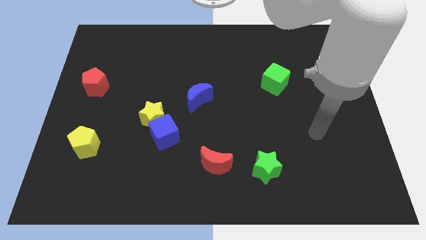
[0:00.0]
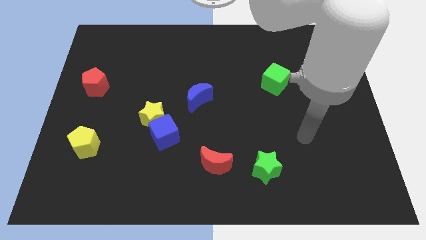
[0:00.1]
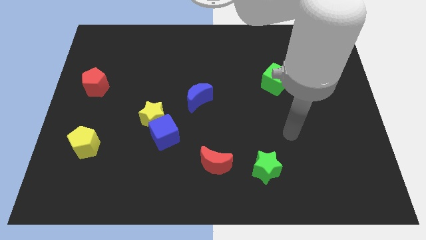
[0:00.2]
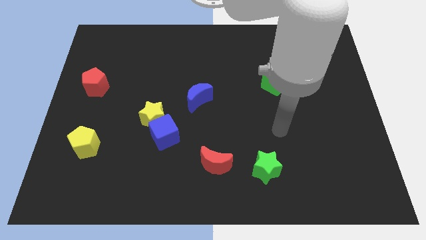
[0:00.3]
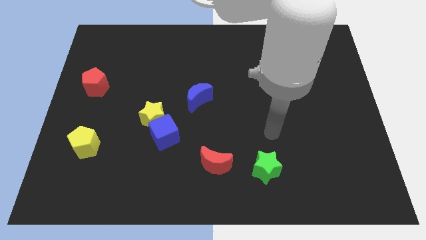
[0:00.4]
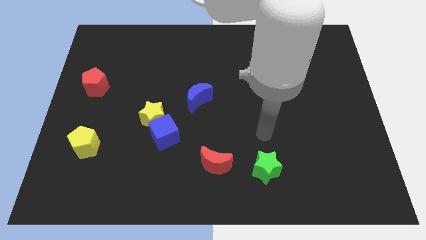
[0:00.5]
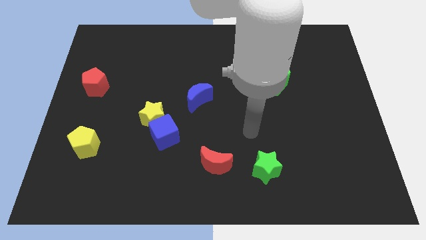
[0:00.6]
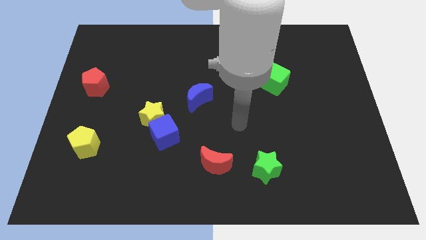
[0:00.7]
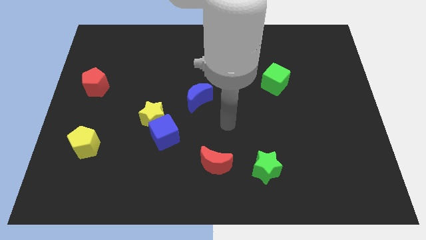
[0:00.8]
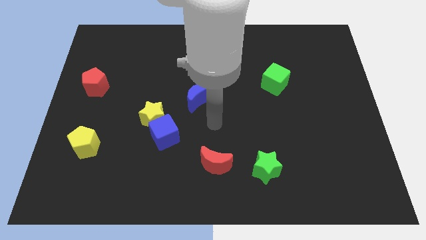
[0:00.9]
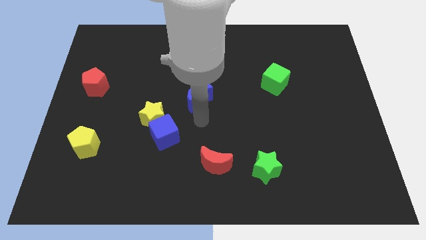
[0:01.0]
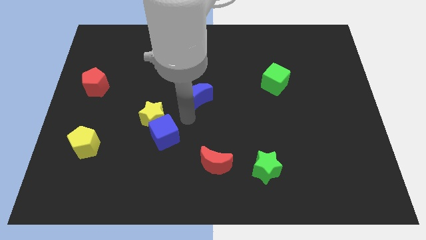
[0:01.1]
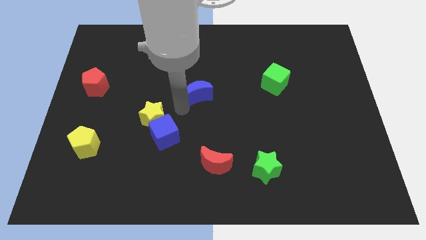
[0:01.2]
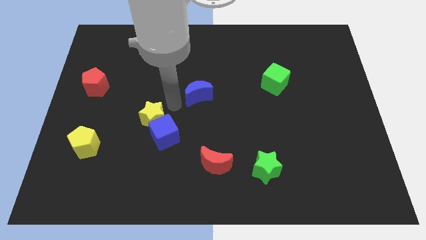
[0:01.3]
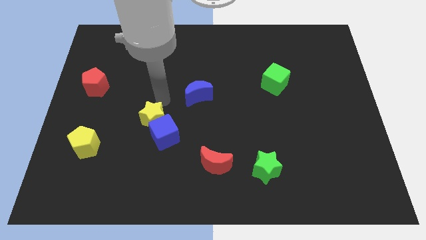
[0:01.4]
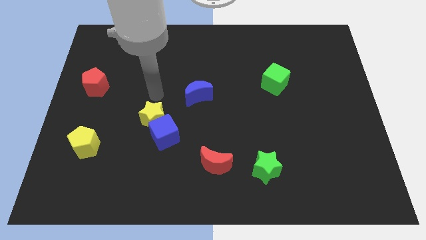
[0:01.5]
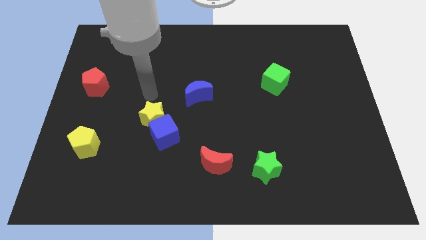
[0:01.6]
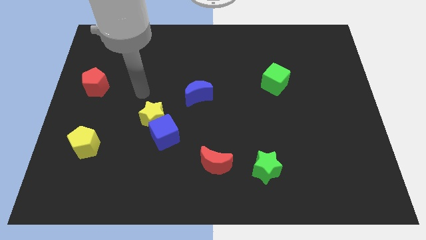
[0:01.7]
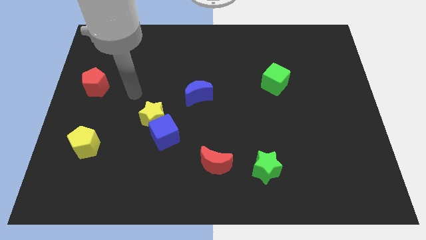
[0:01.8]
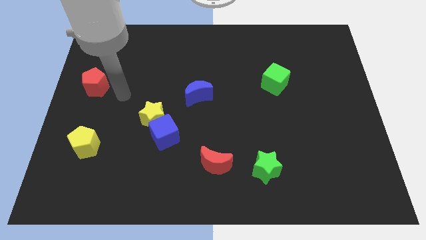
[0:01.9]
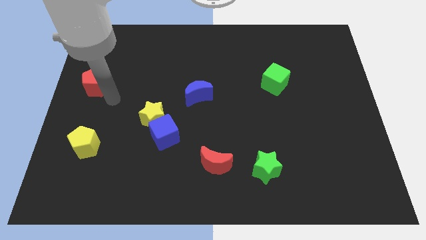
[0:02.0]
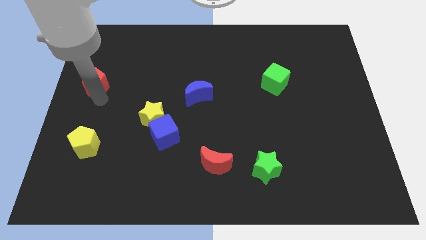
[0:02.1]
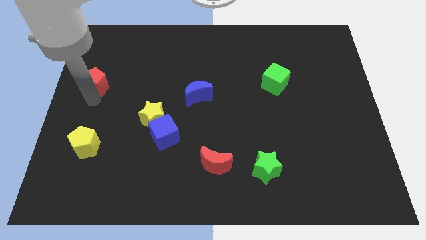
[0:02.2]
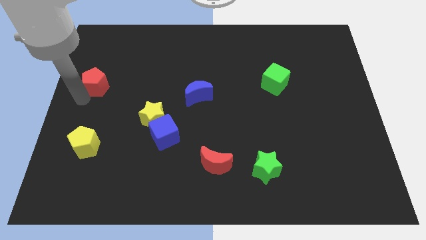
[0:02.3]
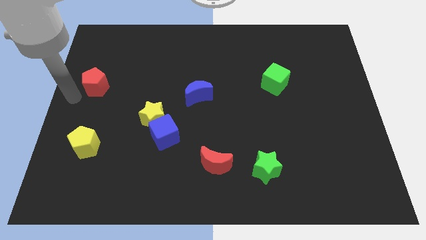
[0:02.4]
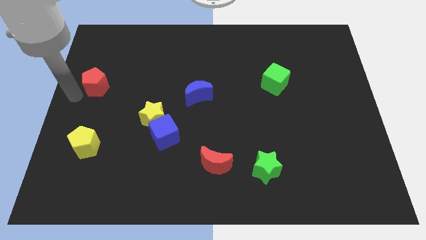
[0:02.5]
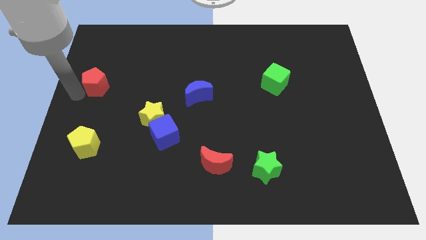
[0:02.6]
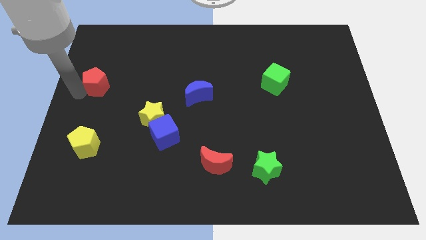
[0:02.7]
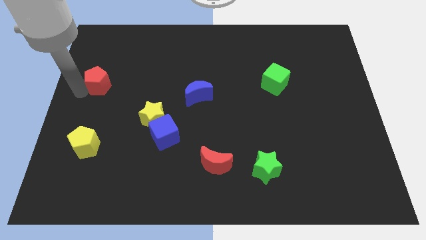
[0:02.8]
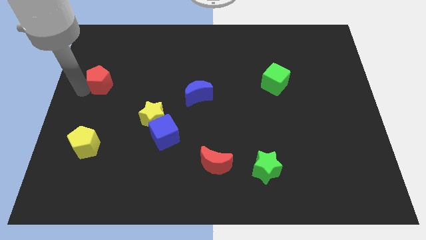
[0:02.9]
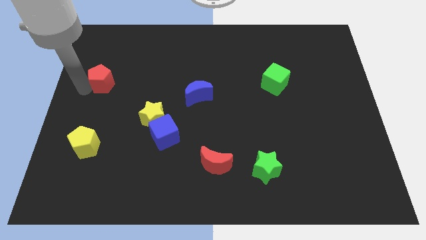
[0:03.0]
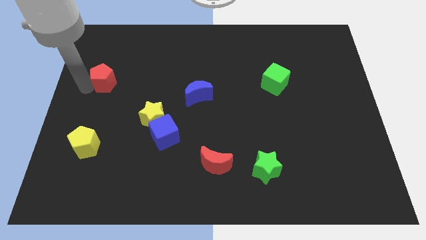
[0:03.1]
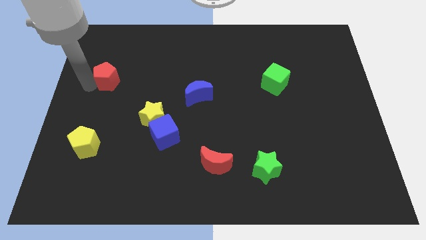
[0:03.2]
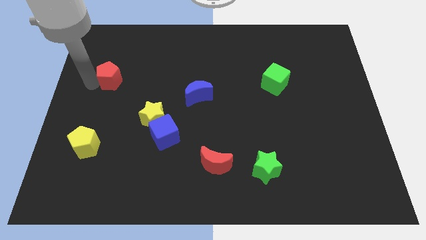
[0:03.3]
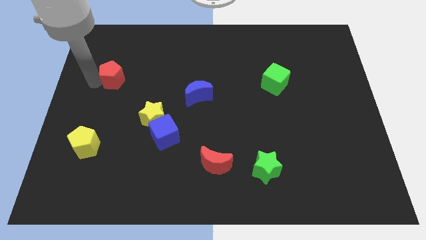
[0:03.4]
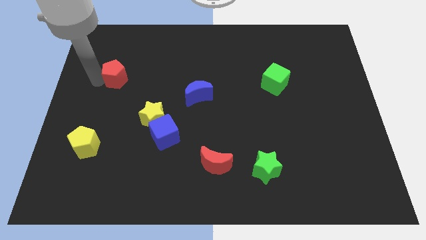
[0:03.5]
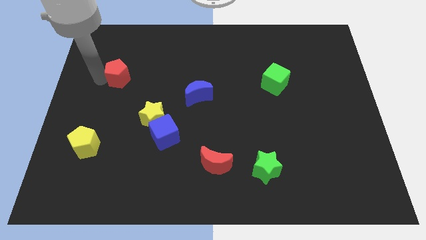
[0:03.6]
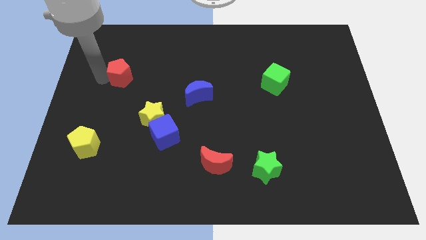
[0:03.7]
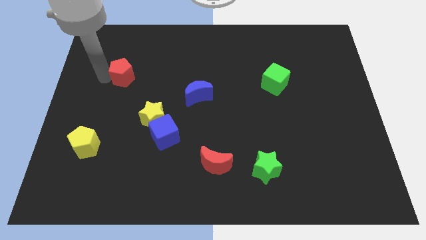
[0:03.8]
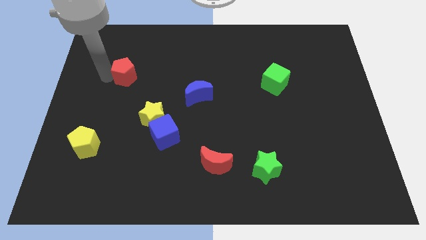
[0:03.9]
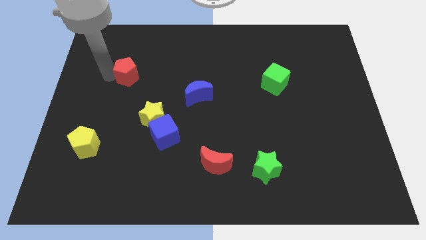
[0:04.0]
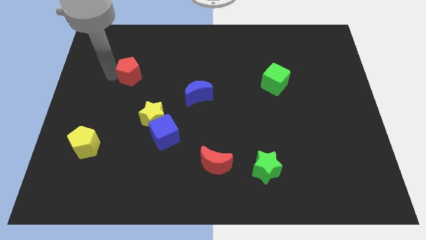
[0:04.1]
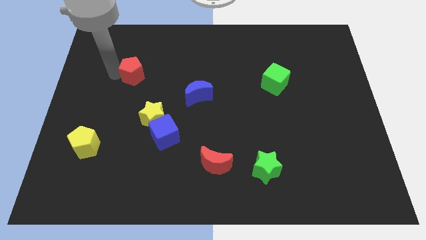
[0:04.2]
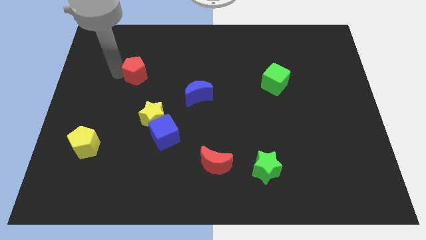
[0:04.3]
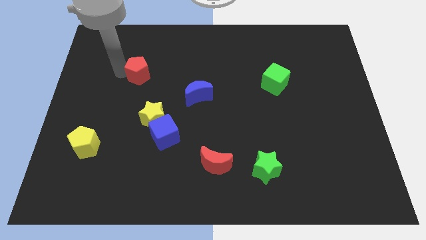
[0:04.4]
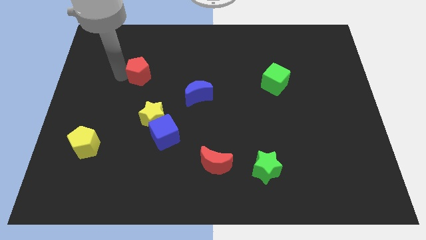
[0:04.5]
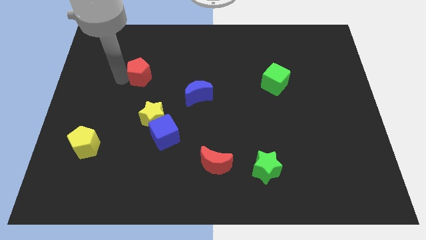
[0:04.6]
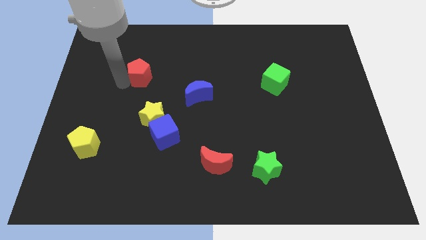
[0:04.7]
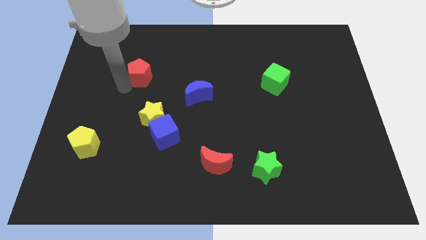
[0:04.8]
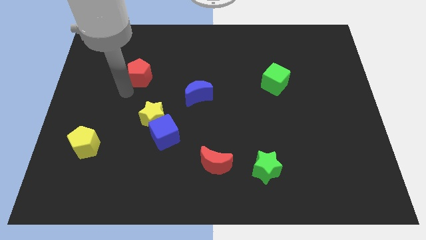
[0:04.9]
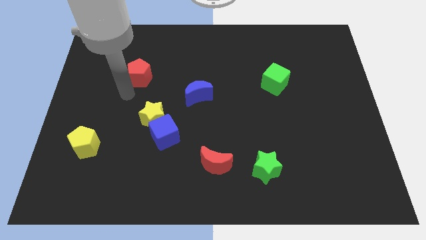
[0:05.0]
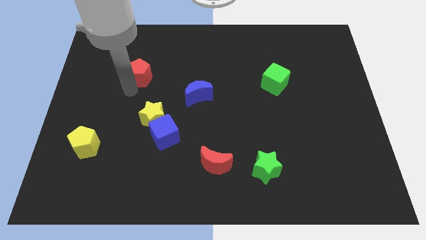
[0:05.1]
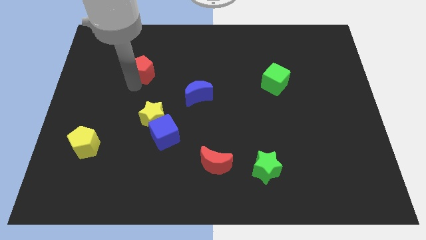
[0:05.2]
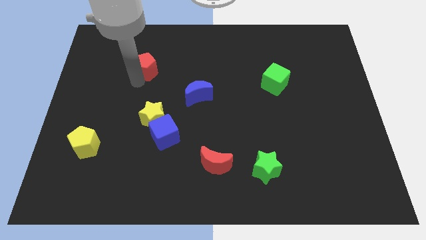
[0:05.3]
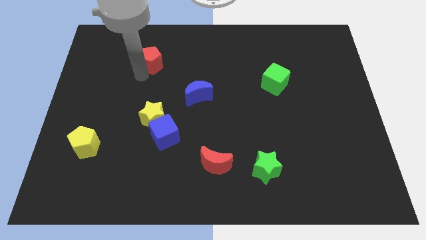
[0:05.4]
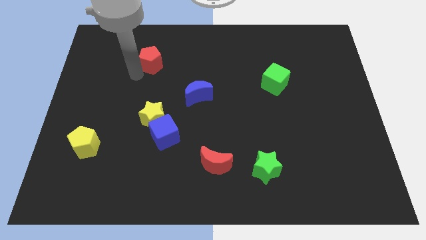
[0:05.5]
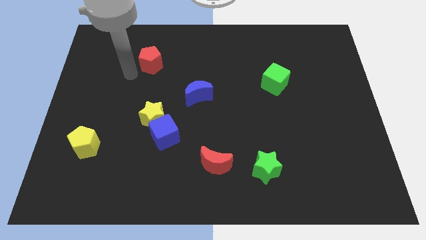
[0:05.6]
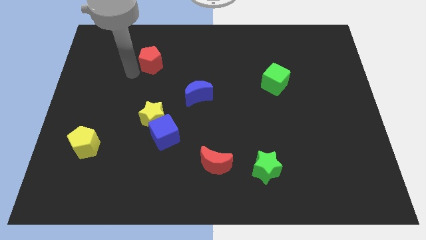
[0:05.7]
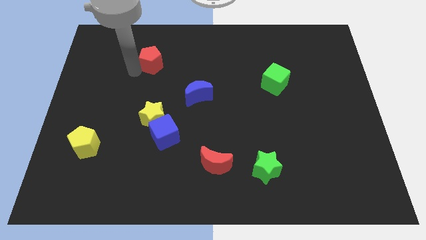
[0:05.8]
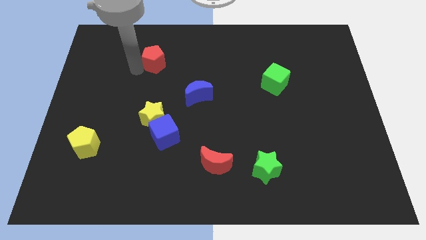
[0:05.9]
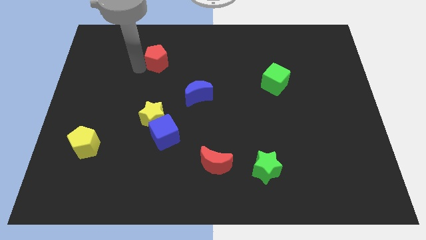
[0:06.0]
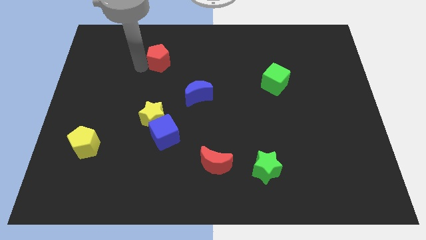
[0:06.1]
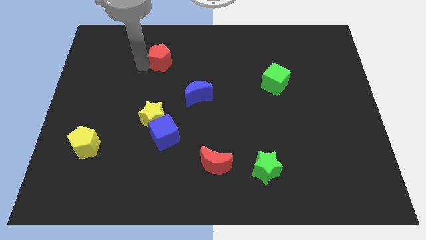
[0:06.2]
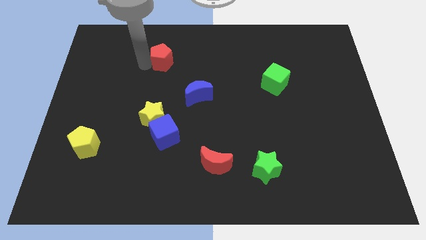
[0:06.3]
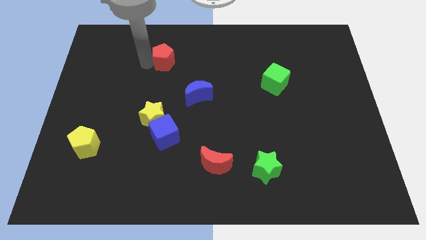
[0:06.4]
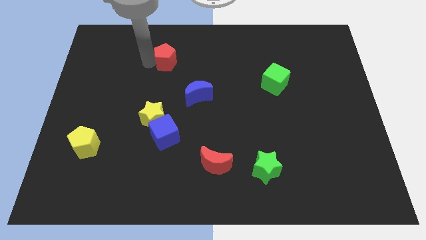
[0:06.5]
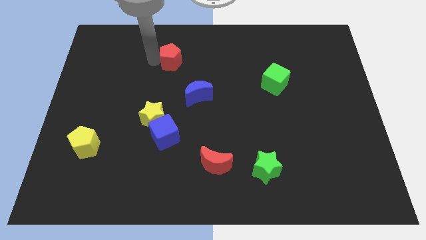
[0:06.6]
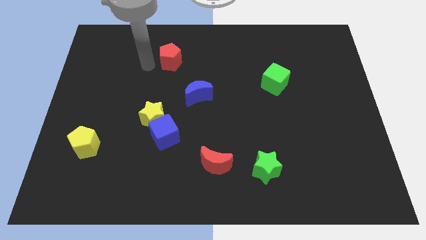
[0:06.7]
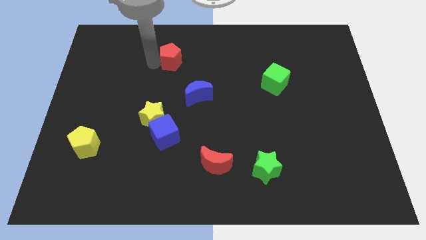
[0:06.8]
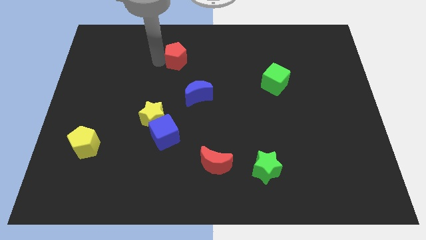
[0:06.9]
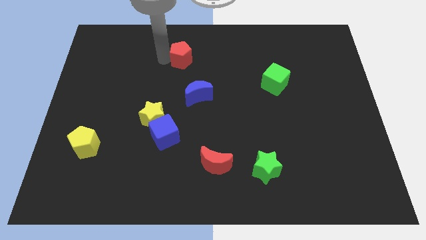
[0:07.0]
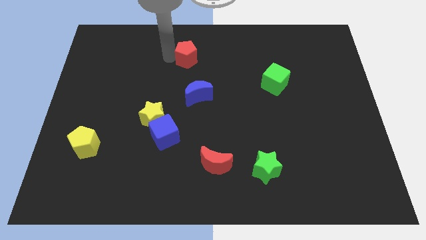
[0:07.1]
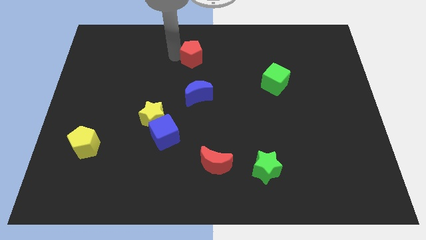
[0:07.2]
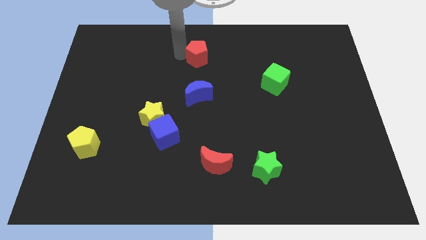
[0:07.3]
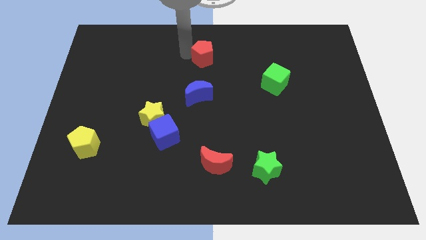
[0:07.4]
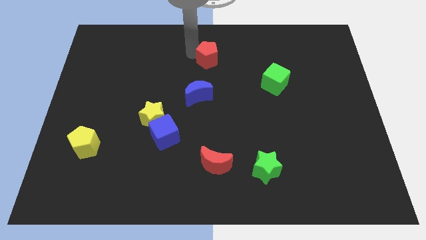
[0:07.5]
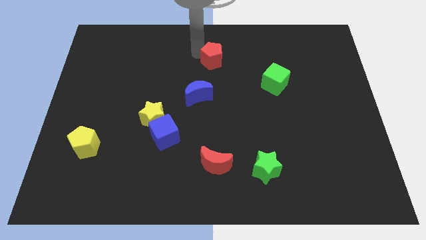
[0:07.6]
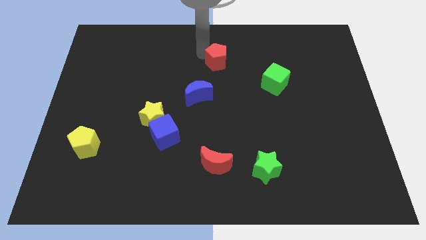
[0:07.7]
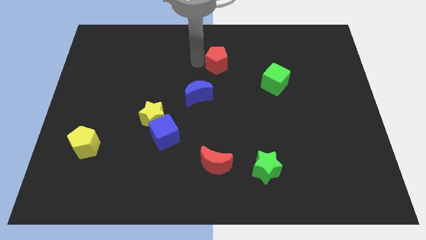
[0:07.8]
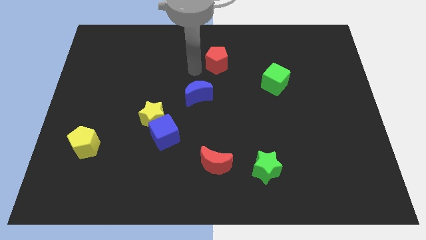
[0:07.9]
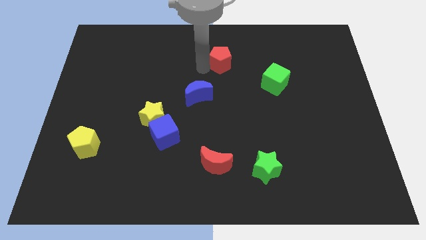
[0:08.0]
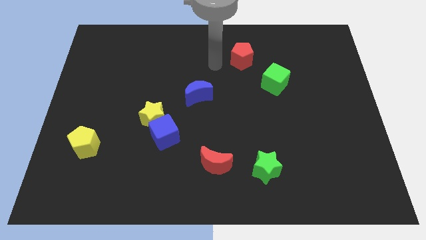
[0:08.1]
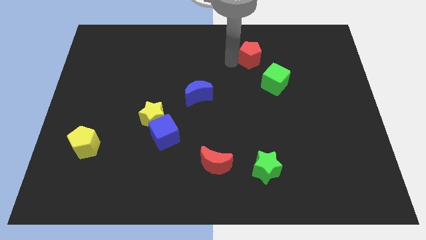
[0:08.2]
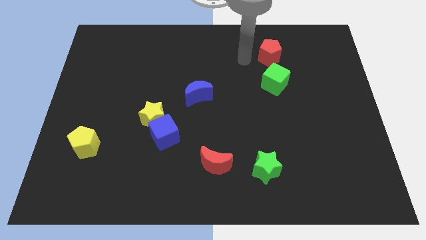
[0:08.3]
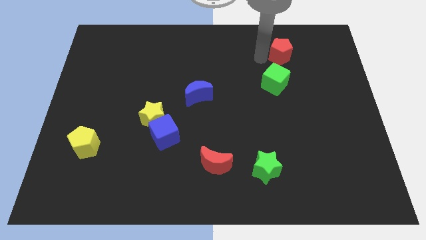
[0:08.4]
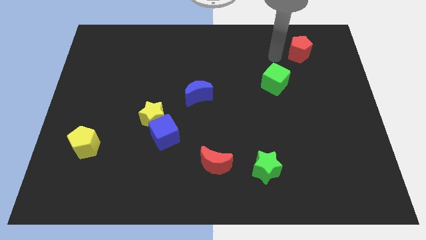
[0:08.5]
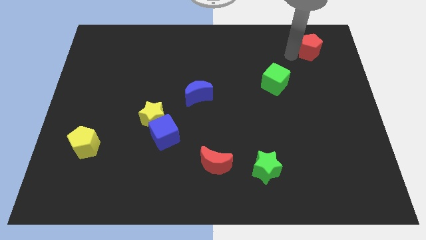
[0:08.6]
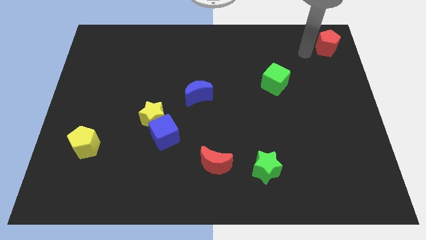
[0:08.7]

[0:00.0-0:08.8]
push the red pentagon to the top right of the board
